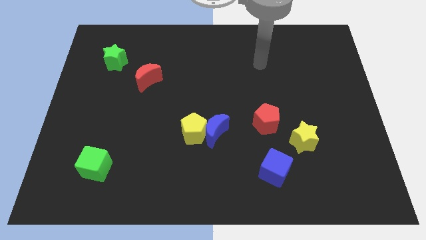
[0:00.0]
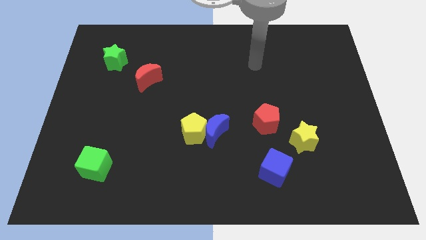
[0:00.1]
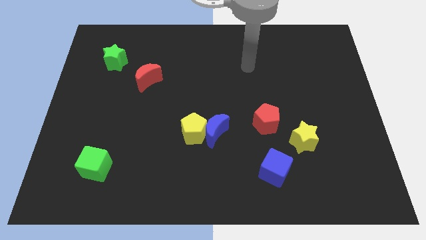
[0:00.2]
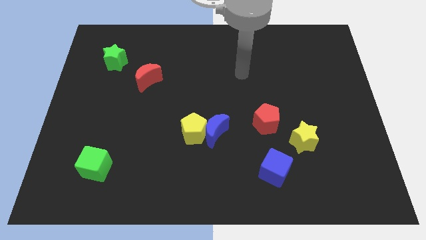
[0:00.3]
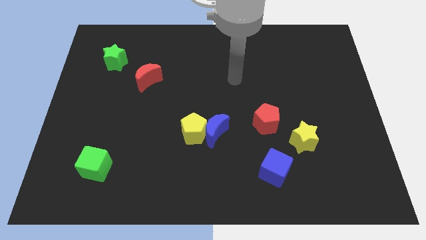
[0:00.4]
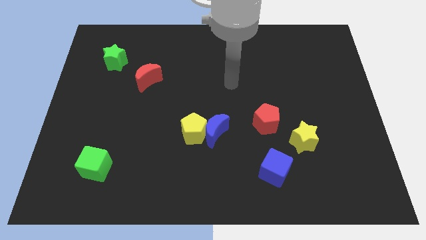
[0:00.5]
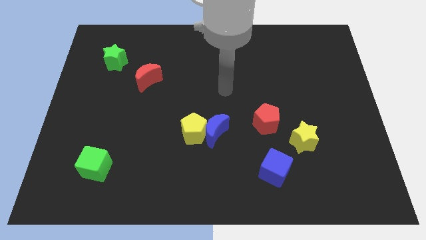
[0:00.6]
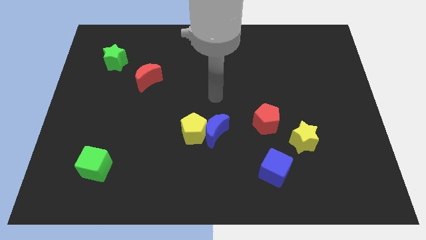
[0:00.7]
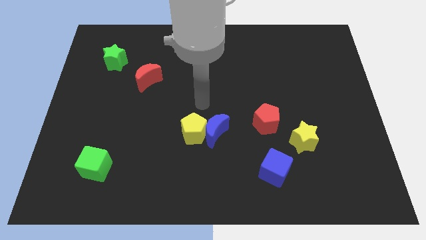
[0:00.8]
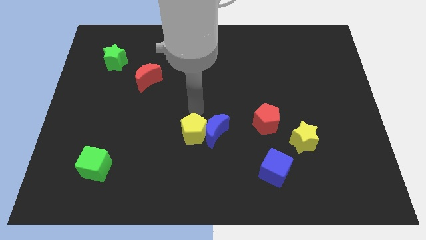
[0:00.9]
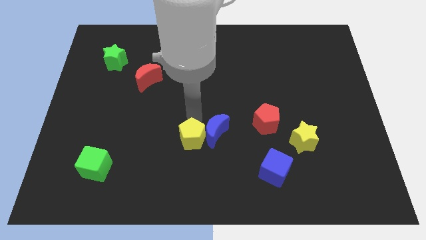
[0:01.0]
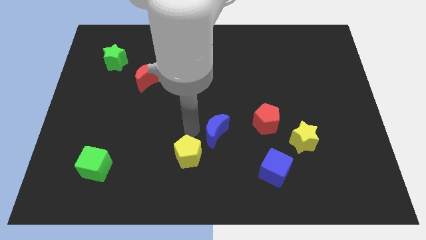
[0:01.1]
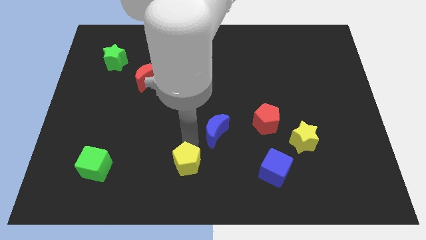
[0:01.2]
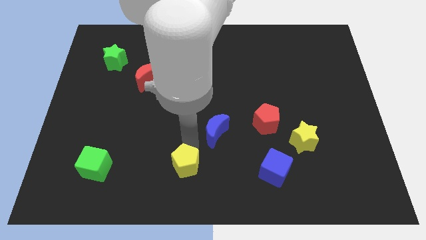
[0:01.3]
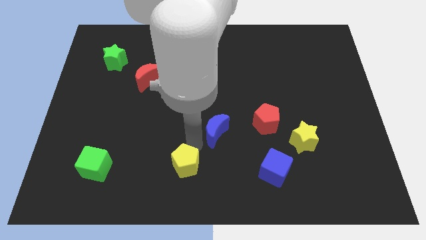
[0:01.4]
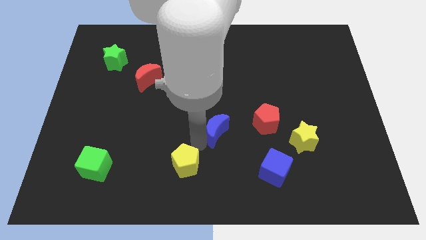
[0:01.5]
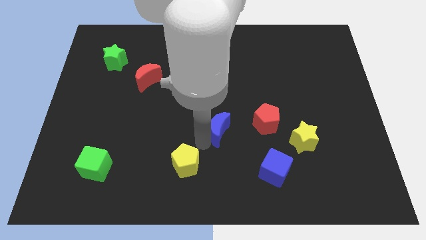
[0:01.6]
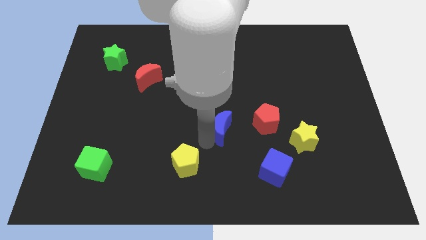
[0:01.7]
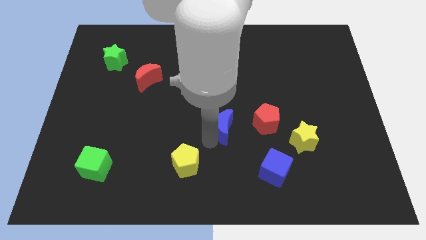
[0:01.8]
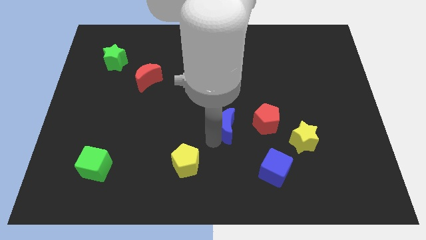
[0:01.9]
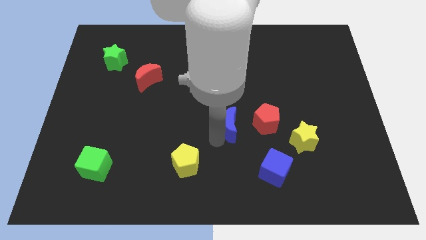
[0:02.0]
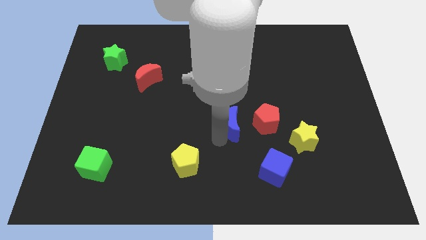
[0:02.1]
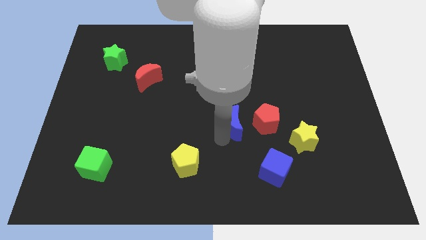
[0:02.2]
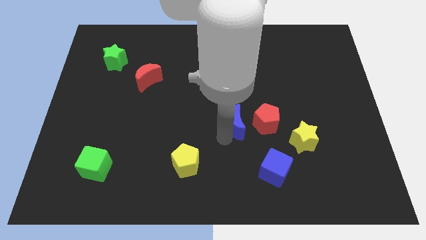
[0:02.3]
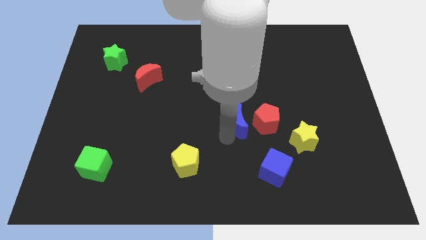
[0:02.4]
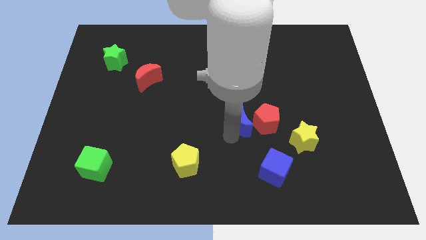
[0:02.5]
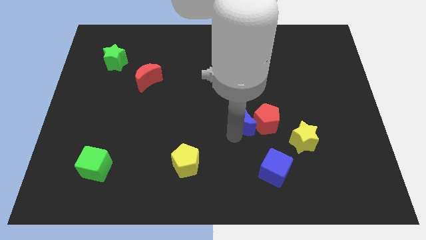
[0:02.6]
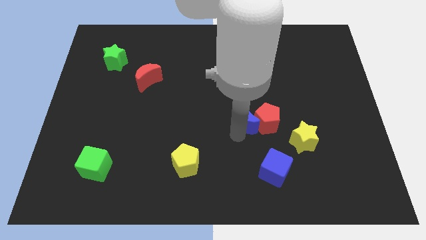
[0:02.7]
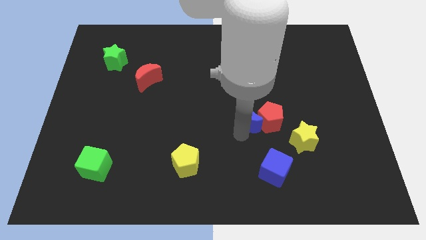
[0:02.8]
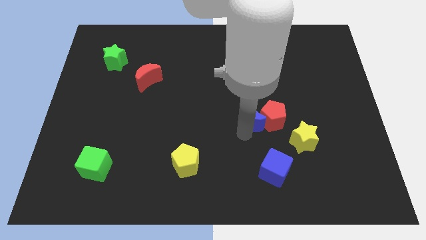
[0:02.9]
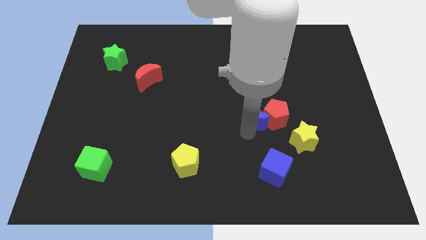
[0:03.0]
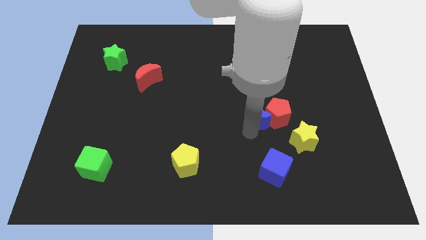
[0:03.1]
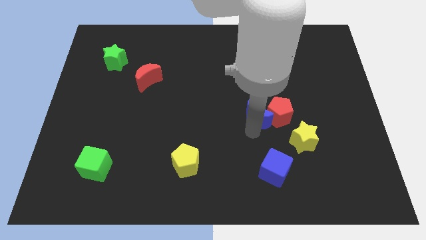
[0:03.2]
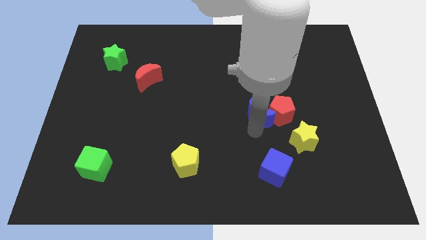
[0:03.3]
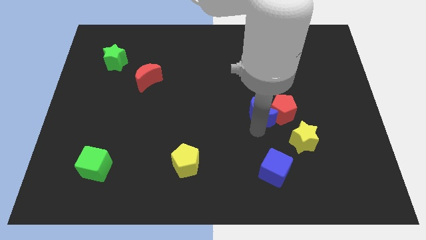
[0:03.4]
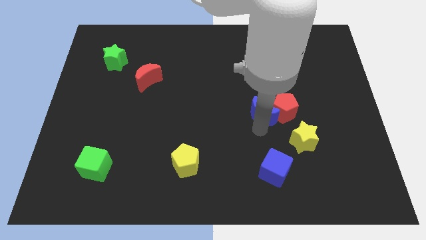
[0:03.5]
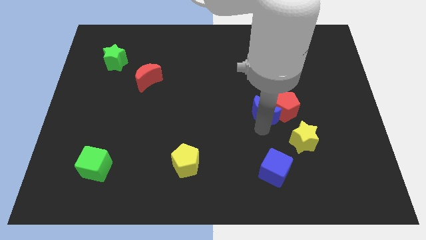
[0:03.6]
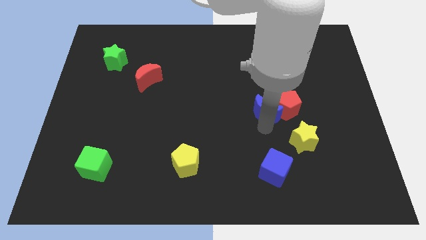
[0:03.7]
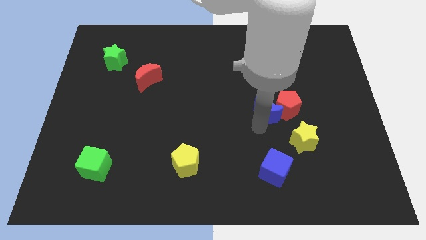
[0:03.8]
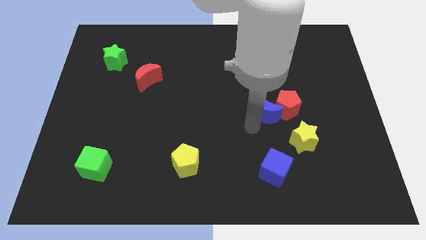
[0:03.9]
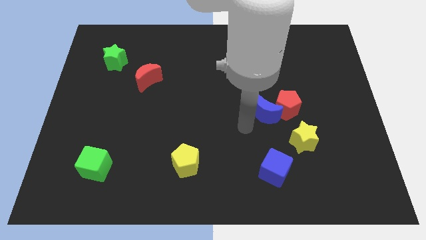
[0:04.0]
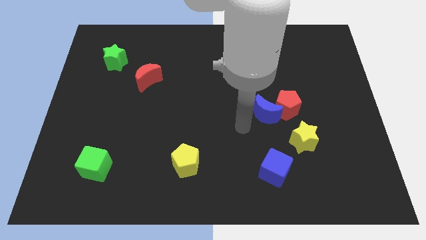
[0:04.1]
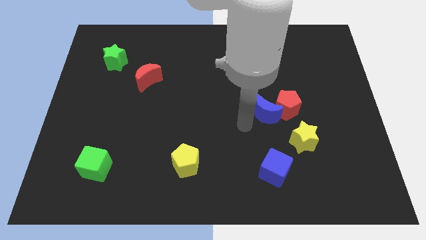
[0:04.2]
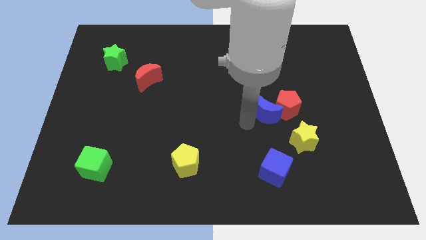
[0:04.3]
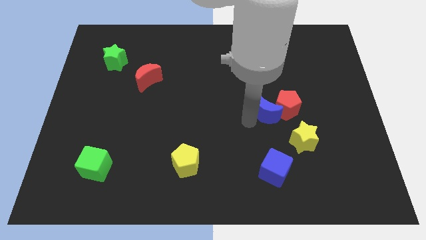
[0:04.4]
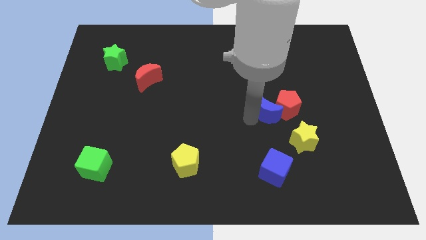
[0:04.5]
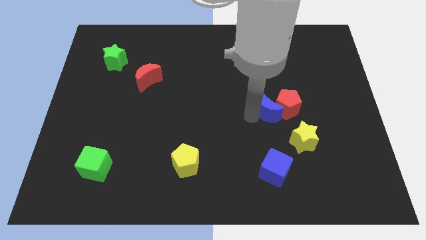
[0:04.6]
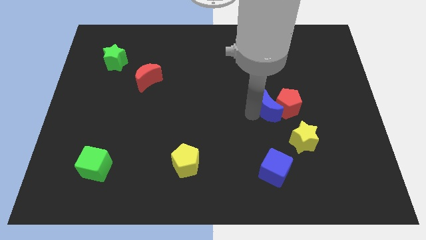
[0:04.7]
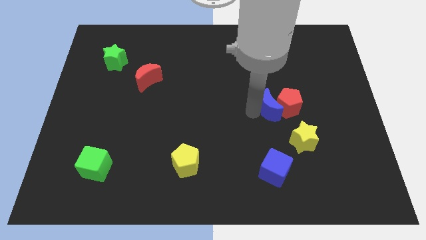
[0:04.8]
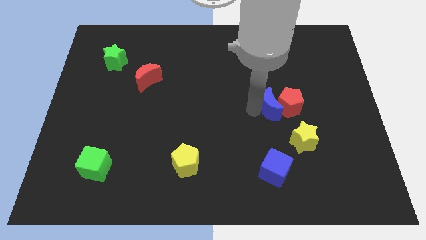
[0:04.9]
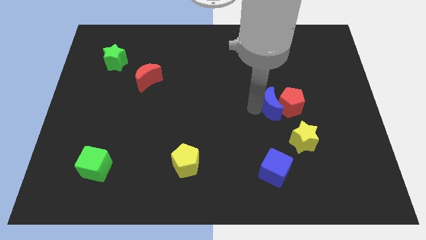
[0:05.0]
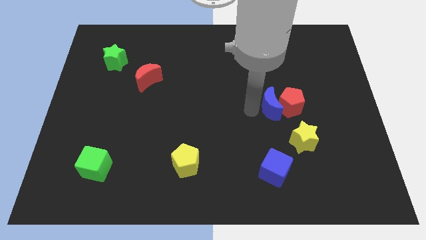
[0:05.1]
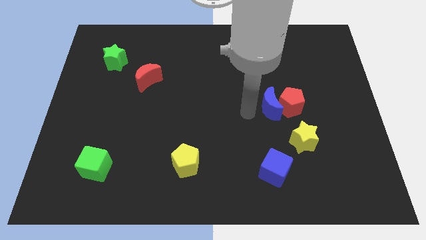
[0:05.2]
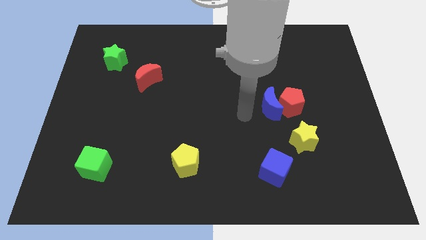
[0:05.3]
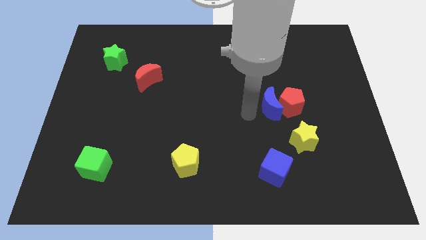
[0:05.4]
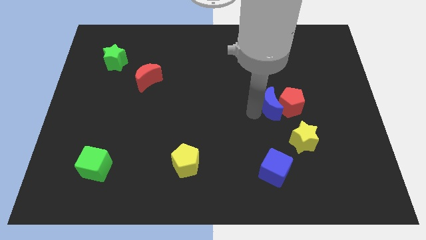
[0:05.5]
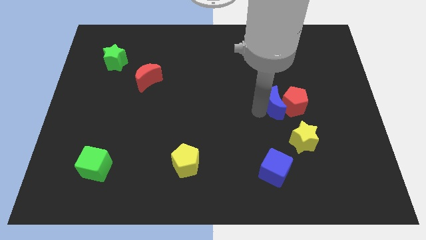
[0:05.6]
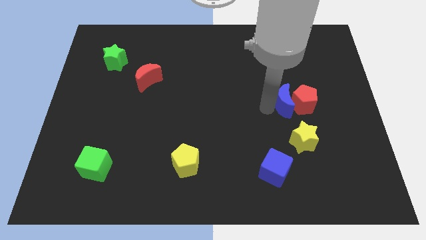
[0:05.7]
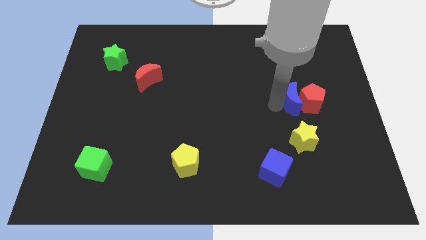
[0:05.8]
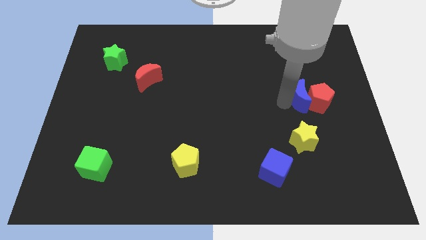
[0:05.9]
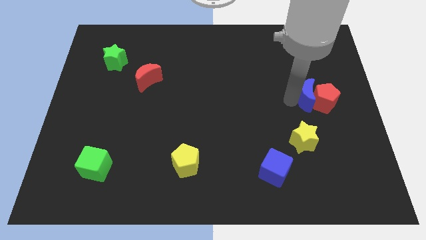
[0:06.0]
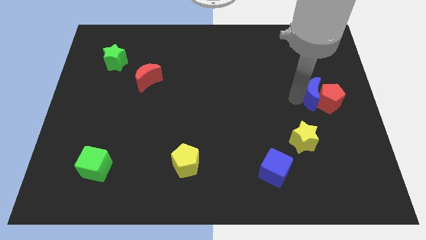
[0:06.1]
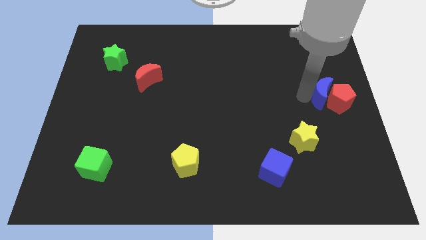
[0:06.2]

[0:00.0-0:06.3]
slide the blue moon to the right side
